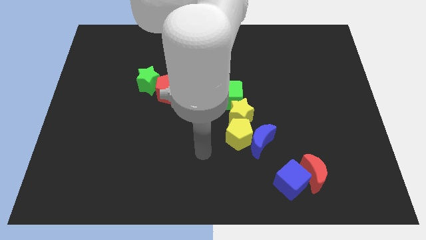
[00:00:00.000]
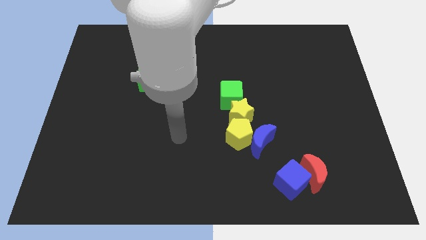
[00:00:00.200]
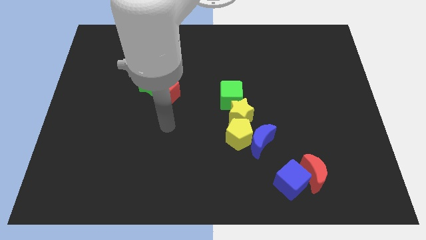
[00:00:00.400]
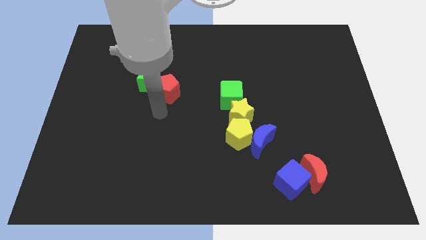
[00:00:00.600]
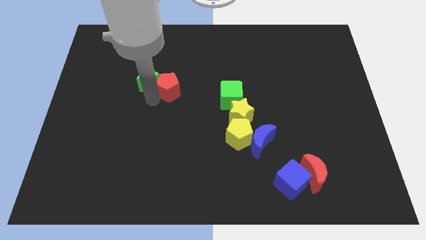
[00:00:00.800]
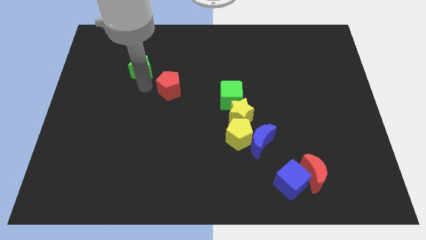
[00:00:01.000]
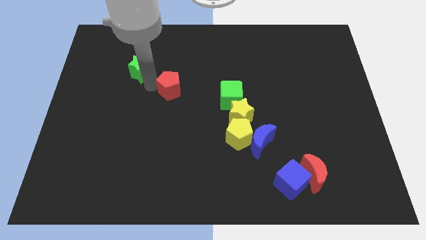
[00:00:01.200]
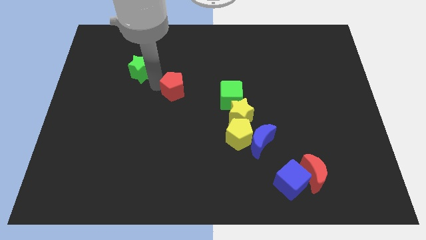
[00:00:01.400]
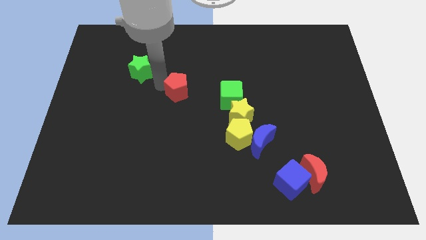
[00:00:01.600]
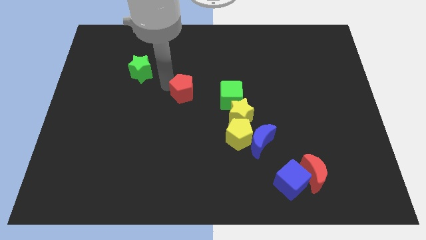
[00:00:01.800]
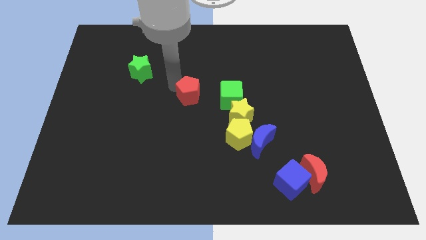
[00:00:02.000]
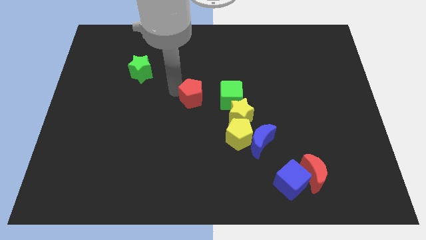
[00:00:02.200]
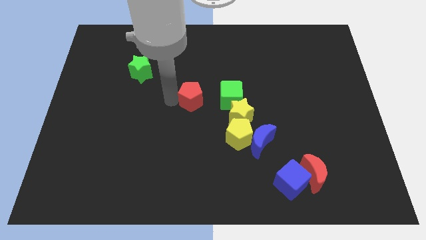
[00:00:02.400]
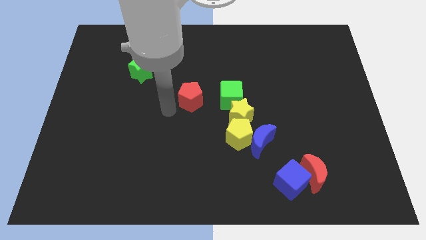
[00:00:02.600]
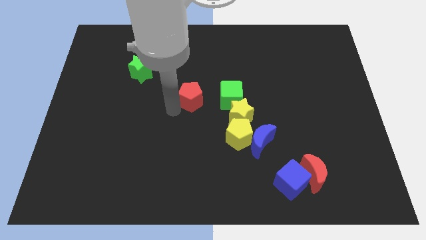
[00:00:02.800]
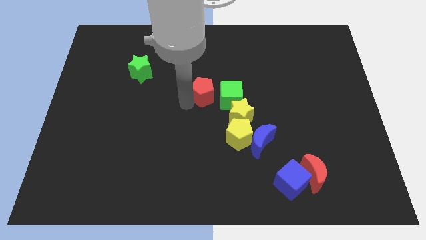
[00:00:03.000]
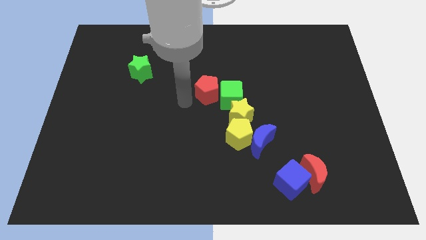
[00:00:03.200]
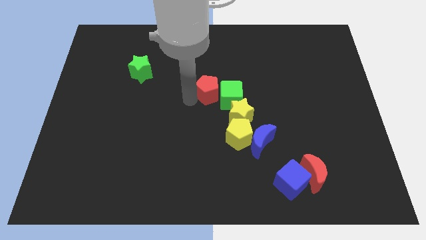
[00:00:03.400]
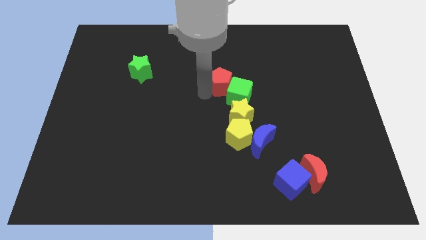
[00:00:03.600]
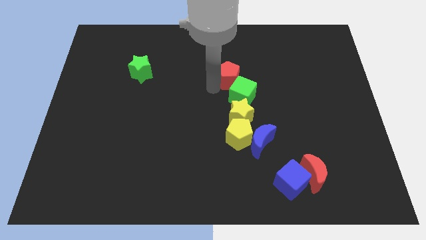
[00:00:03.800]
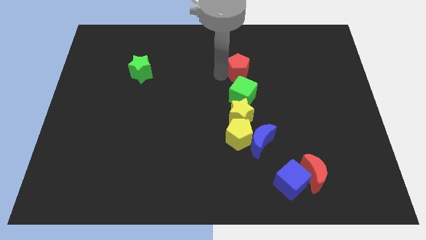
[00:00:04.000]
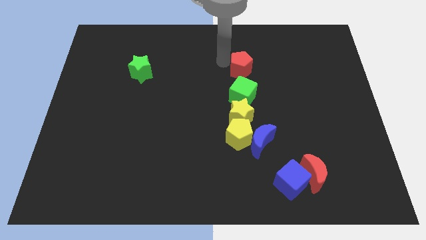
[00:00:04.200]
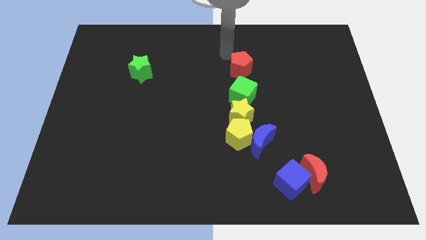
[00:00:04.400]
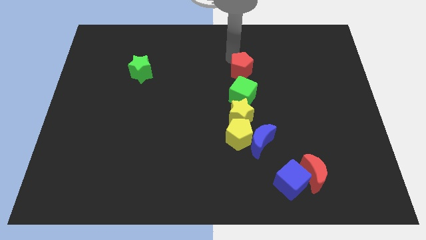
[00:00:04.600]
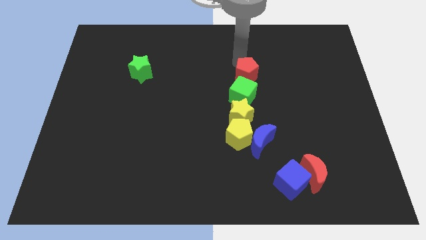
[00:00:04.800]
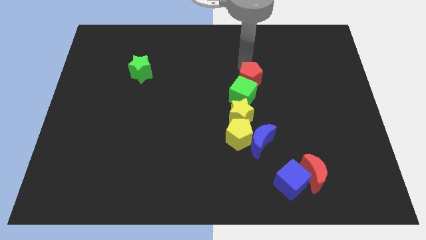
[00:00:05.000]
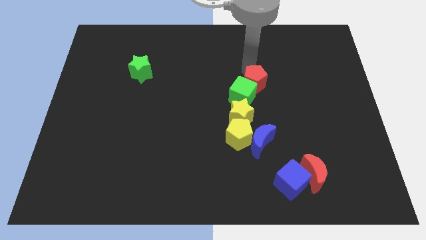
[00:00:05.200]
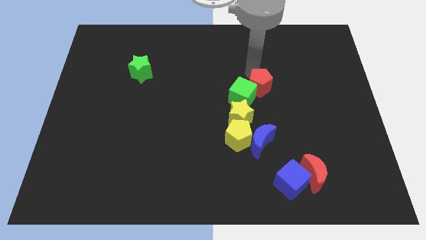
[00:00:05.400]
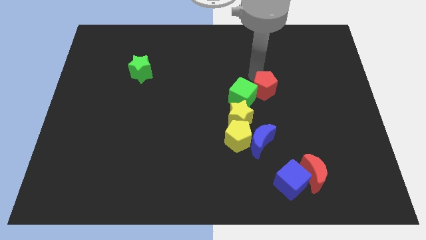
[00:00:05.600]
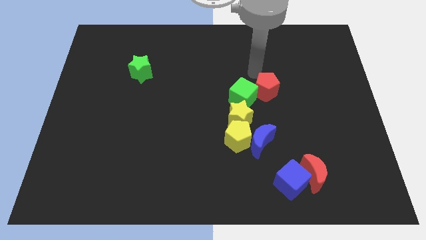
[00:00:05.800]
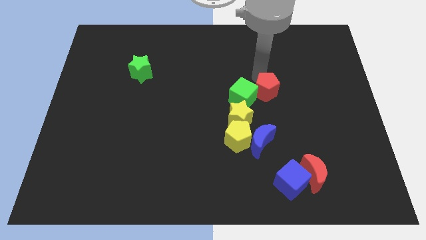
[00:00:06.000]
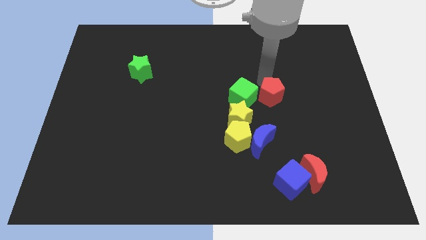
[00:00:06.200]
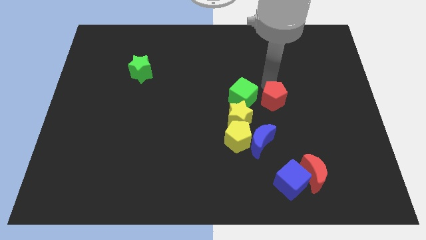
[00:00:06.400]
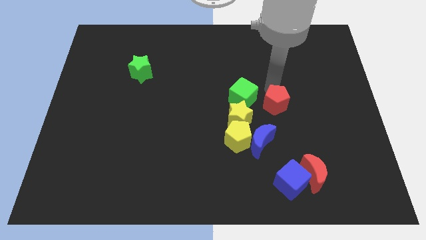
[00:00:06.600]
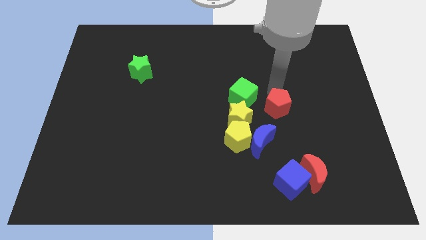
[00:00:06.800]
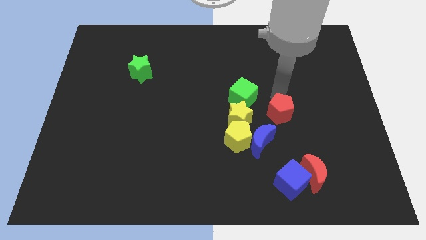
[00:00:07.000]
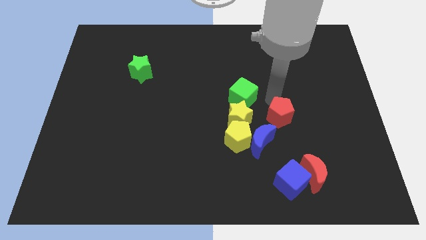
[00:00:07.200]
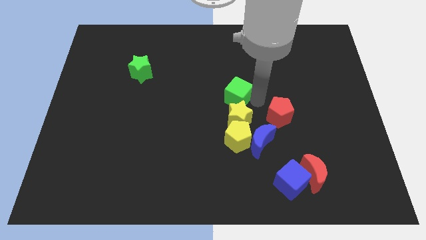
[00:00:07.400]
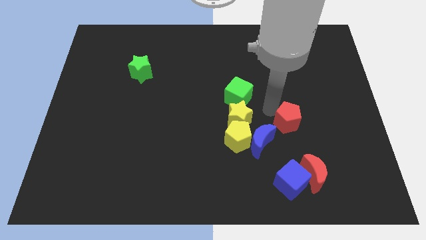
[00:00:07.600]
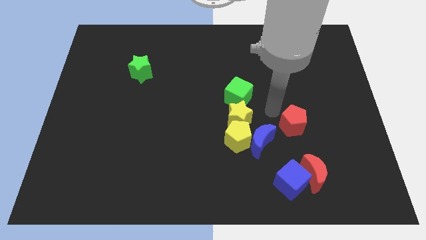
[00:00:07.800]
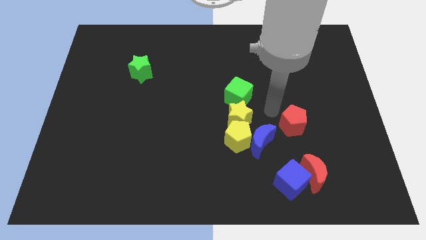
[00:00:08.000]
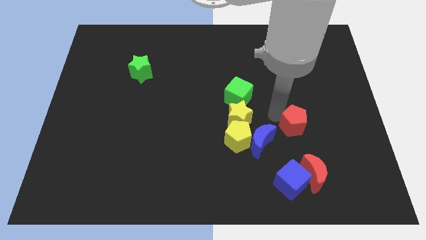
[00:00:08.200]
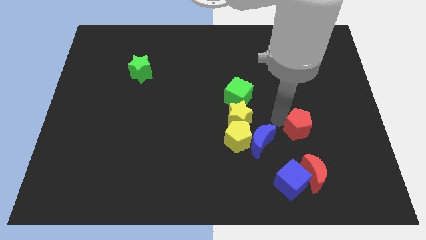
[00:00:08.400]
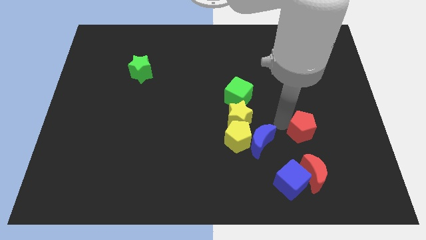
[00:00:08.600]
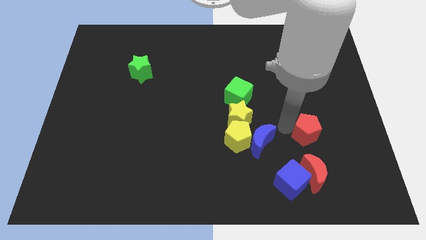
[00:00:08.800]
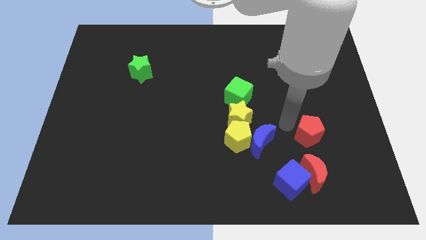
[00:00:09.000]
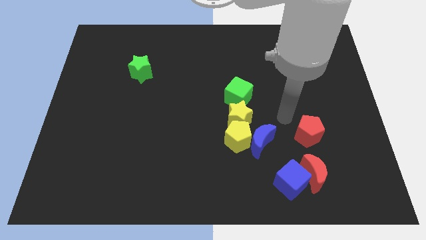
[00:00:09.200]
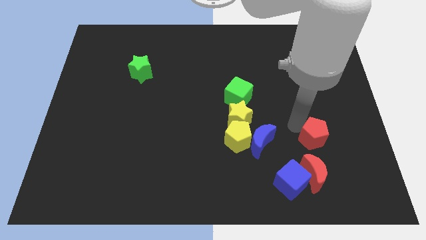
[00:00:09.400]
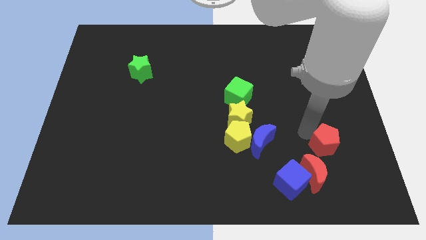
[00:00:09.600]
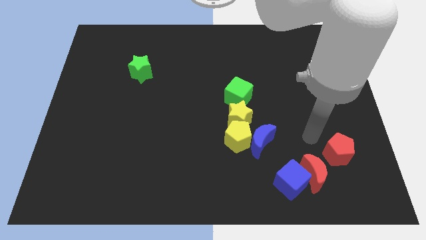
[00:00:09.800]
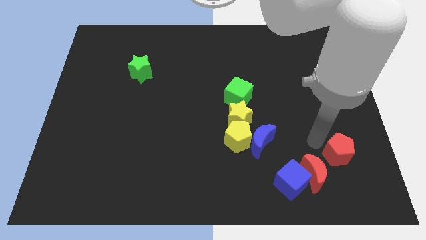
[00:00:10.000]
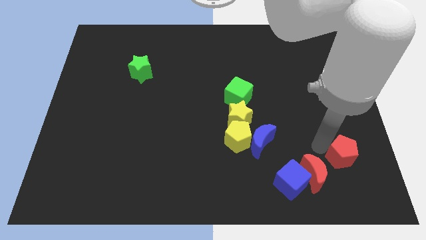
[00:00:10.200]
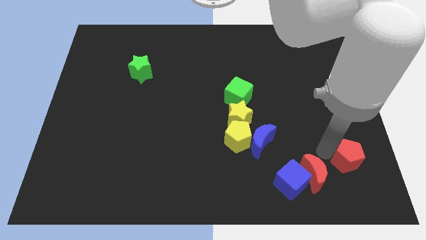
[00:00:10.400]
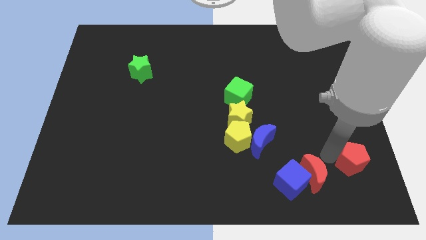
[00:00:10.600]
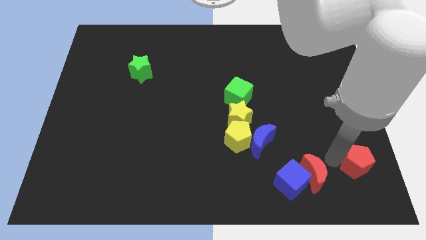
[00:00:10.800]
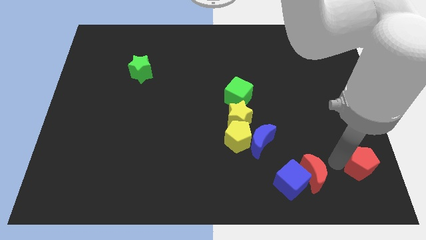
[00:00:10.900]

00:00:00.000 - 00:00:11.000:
push the red pentagon to the bottom right

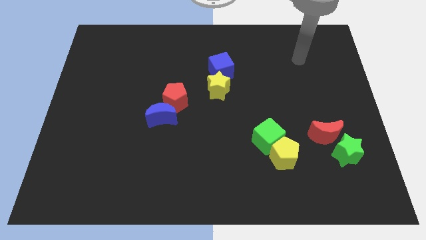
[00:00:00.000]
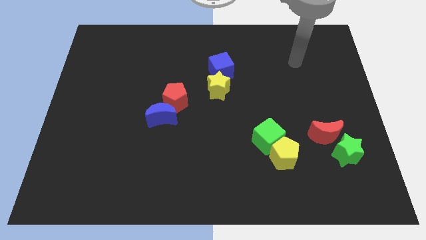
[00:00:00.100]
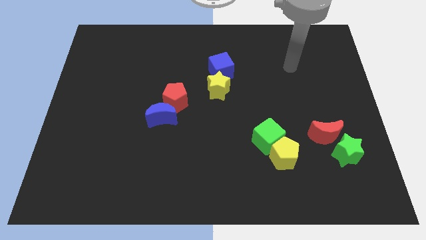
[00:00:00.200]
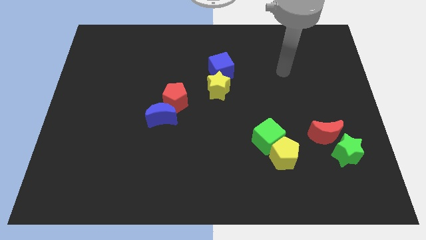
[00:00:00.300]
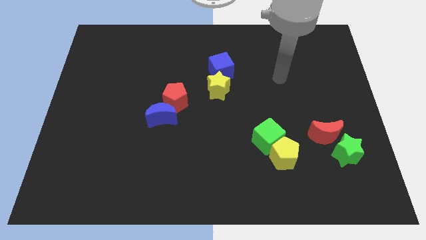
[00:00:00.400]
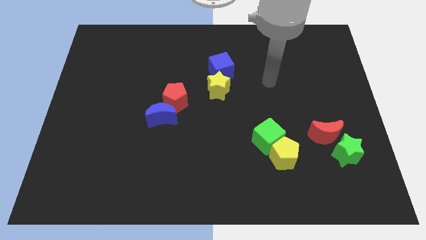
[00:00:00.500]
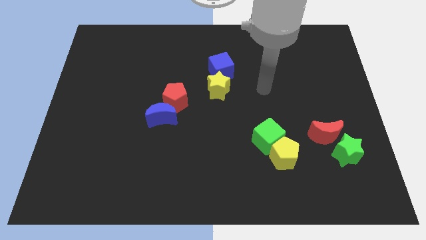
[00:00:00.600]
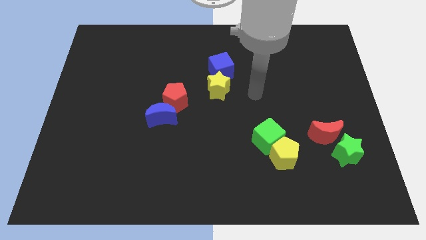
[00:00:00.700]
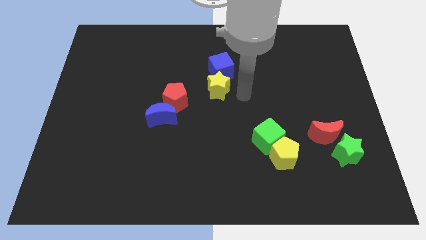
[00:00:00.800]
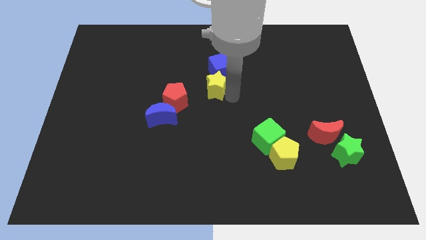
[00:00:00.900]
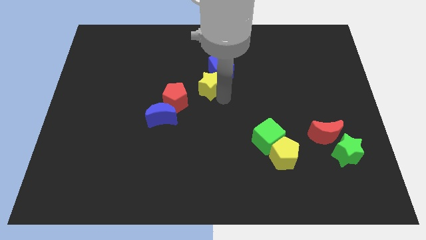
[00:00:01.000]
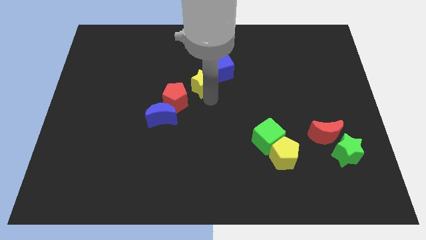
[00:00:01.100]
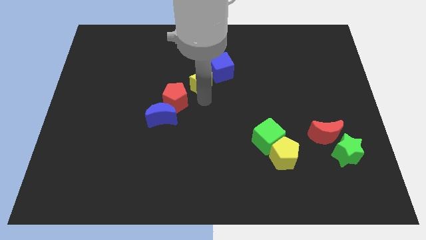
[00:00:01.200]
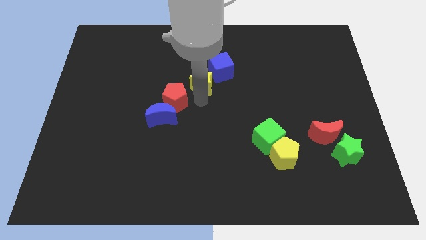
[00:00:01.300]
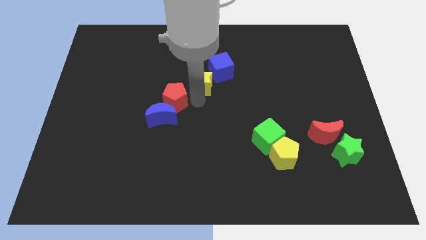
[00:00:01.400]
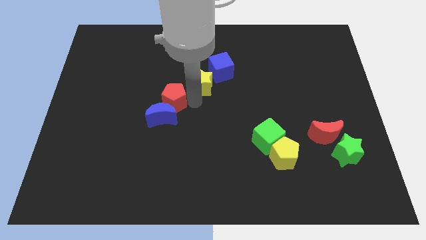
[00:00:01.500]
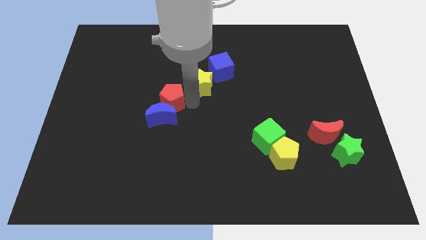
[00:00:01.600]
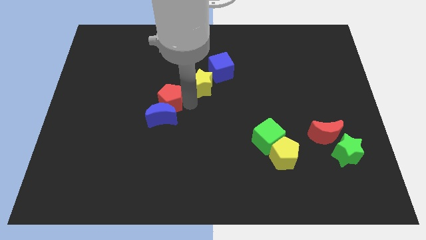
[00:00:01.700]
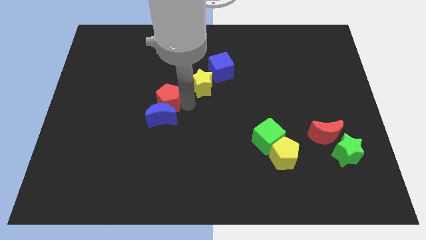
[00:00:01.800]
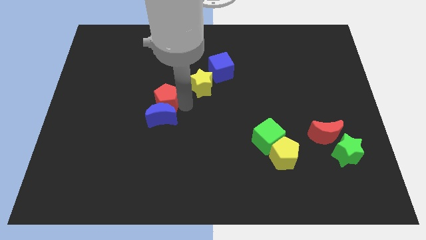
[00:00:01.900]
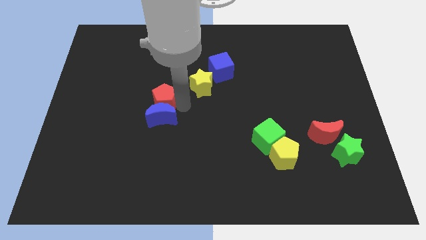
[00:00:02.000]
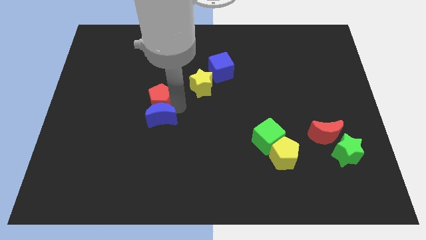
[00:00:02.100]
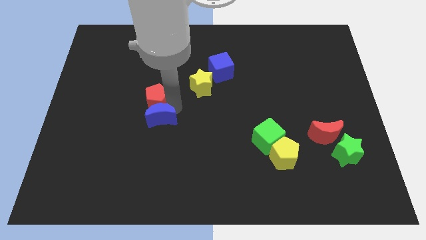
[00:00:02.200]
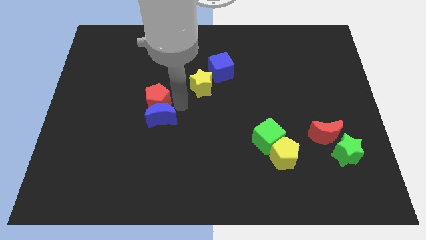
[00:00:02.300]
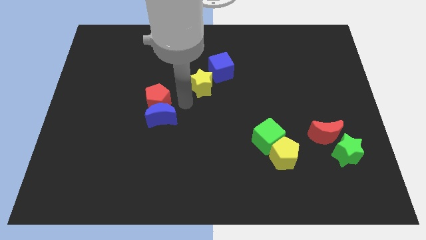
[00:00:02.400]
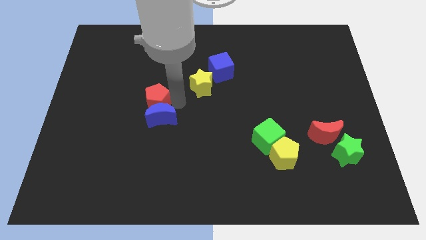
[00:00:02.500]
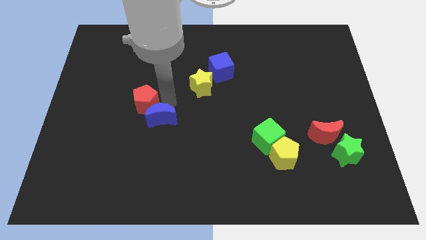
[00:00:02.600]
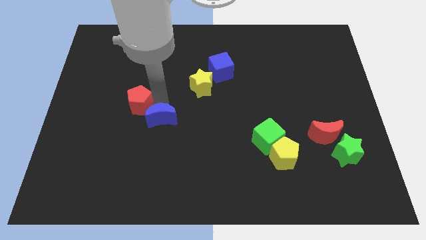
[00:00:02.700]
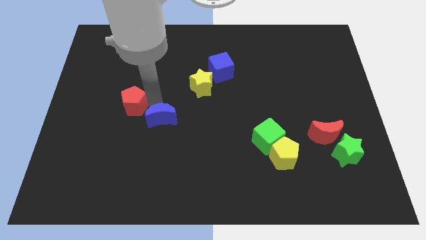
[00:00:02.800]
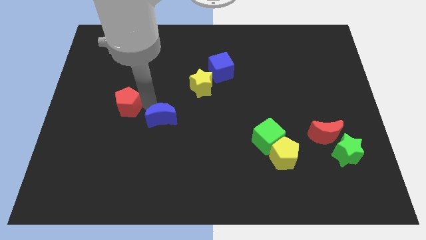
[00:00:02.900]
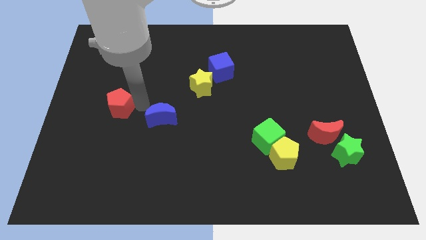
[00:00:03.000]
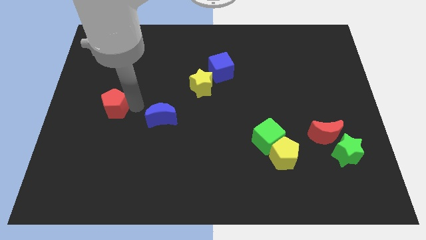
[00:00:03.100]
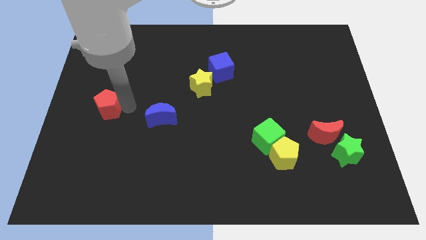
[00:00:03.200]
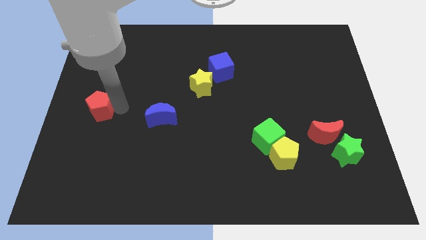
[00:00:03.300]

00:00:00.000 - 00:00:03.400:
move the red pentagon to the left side
